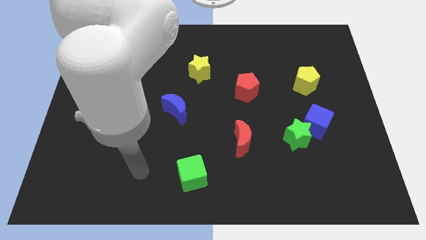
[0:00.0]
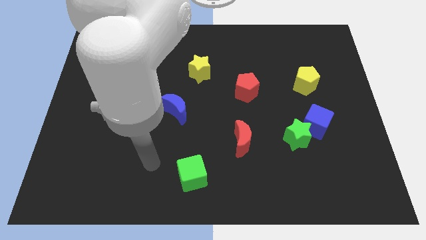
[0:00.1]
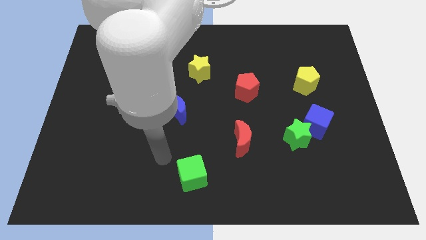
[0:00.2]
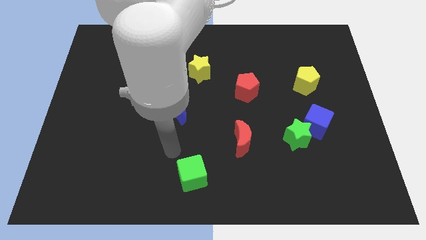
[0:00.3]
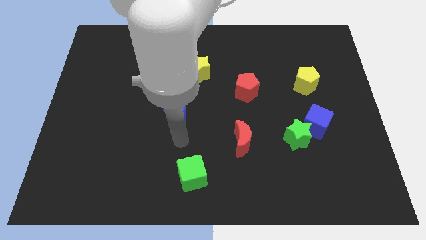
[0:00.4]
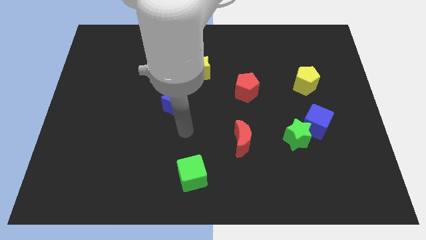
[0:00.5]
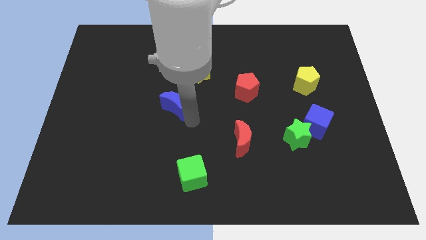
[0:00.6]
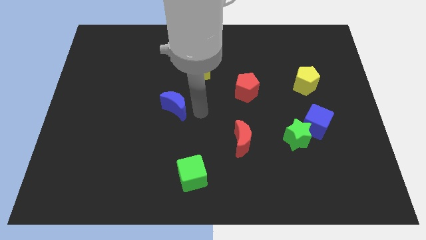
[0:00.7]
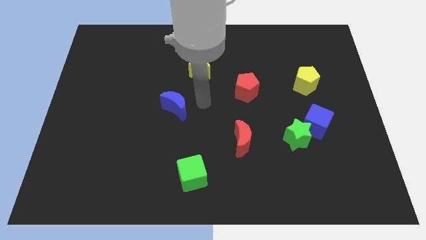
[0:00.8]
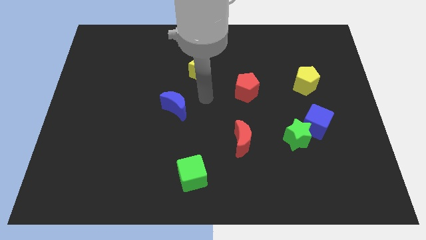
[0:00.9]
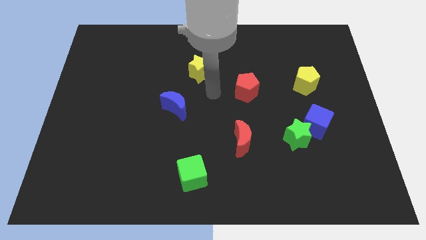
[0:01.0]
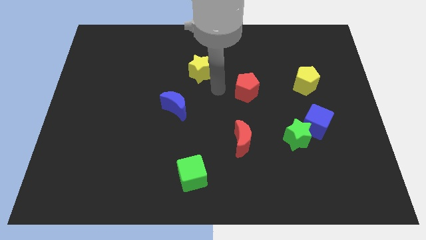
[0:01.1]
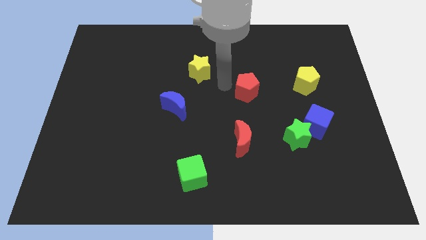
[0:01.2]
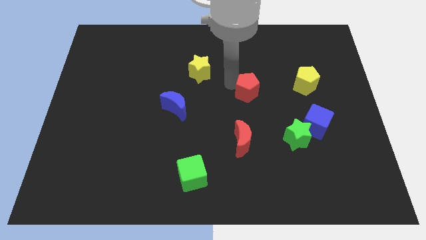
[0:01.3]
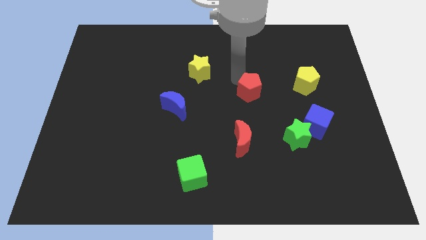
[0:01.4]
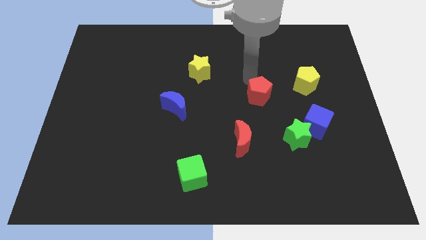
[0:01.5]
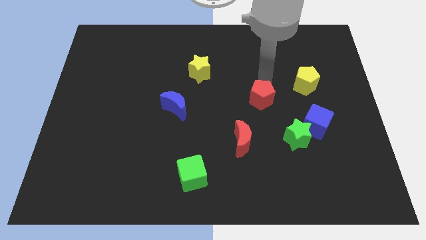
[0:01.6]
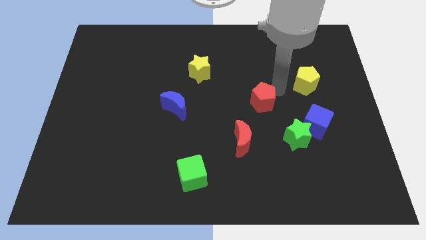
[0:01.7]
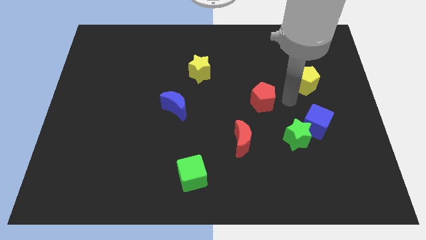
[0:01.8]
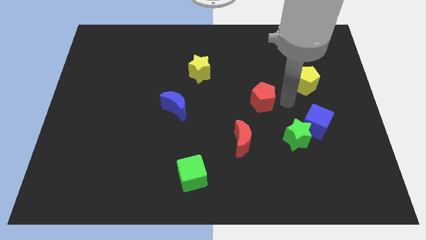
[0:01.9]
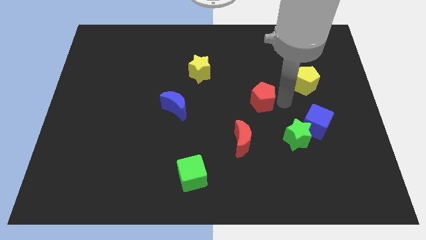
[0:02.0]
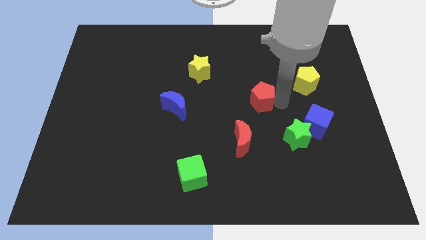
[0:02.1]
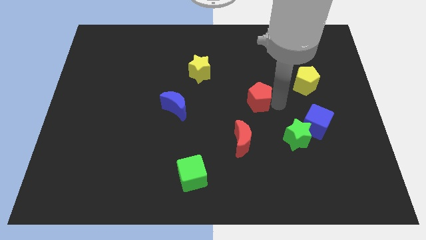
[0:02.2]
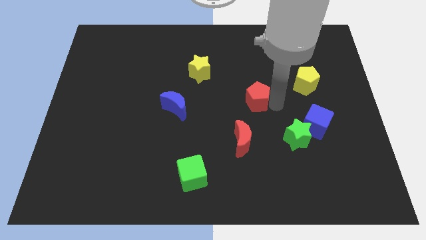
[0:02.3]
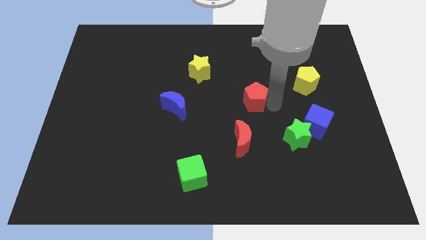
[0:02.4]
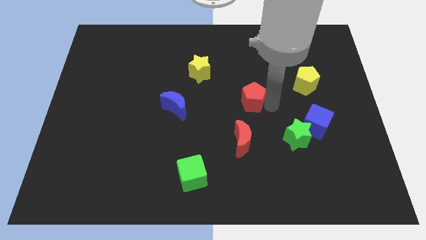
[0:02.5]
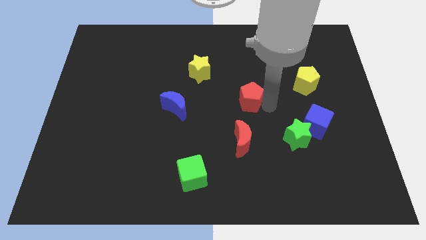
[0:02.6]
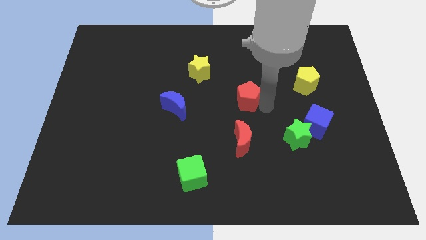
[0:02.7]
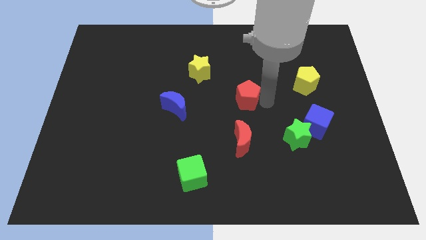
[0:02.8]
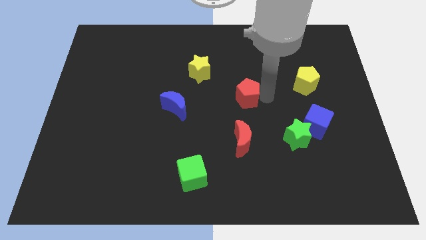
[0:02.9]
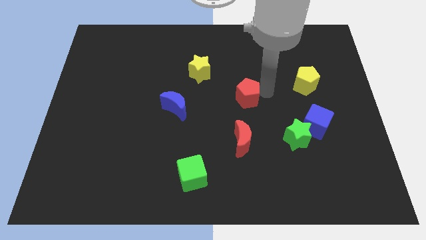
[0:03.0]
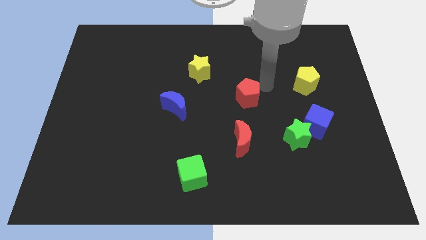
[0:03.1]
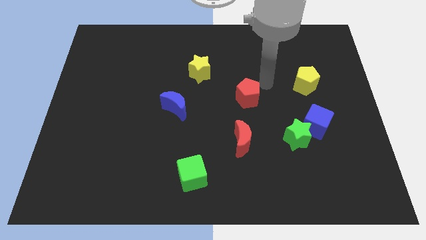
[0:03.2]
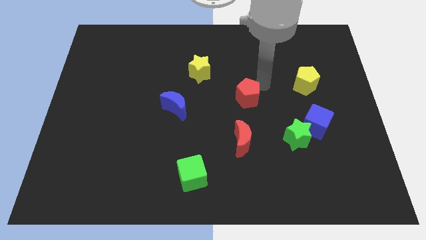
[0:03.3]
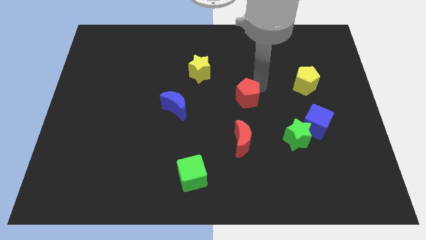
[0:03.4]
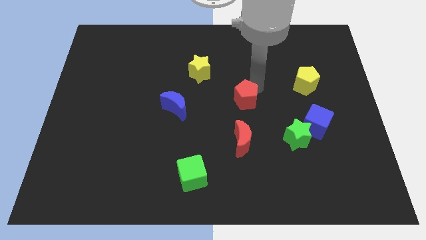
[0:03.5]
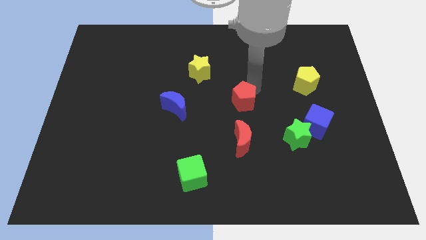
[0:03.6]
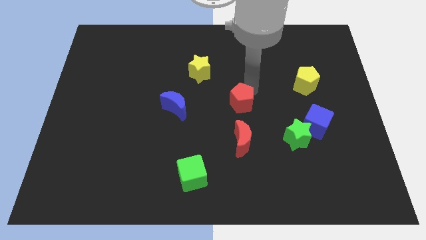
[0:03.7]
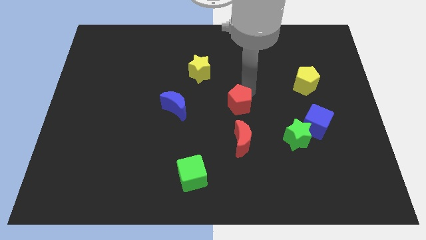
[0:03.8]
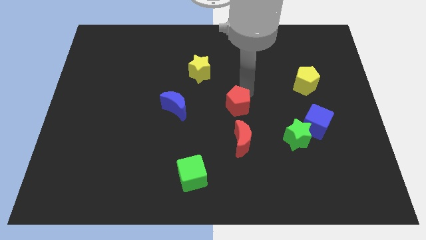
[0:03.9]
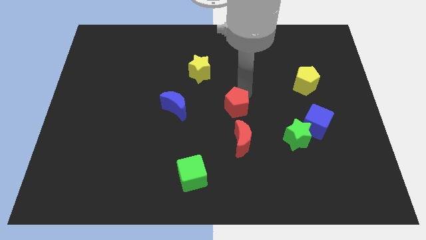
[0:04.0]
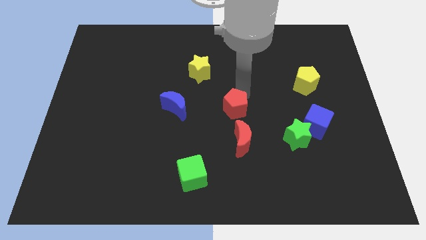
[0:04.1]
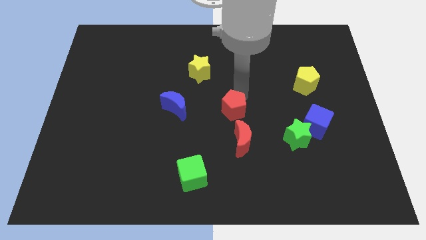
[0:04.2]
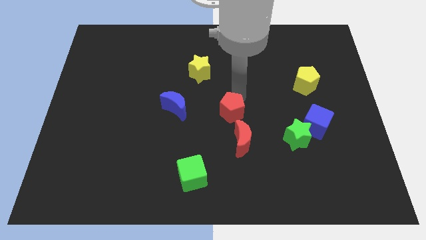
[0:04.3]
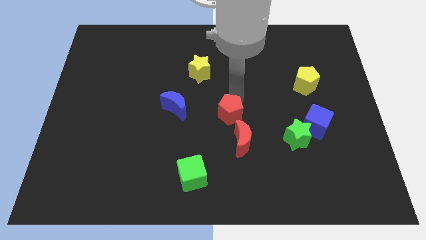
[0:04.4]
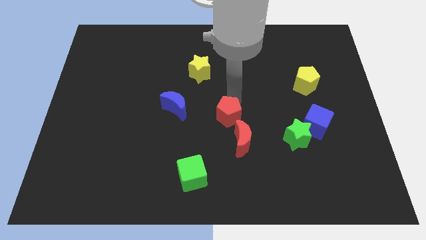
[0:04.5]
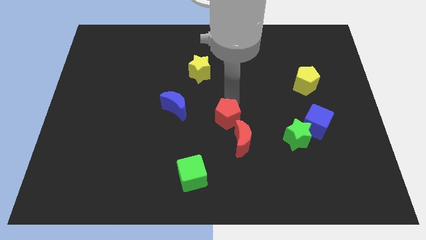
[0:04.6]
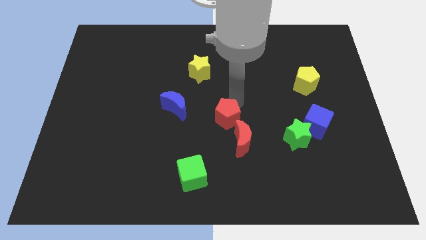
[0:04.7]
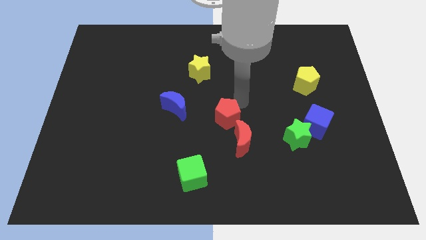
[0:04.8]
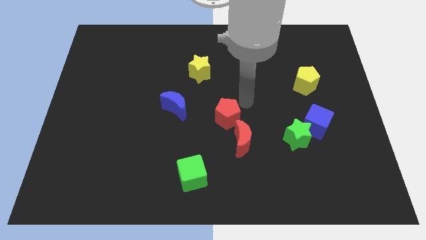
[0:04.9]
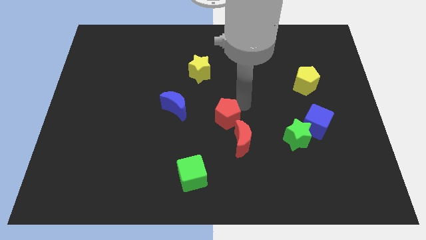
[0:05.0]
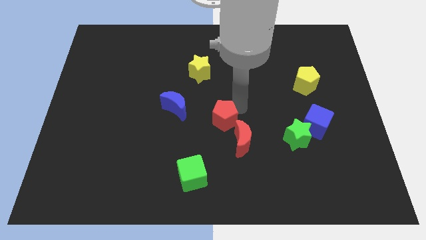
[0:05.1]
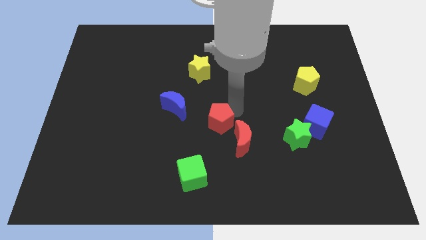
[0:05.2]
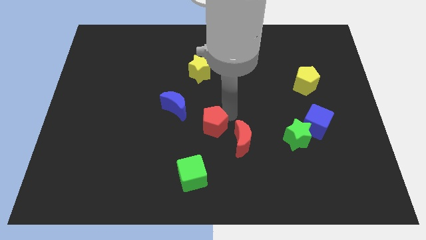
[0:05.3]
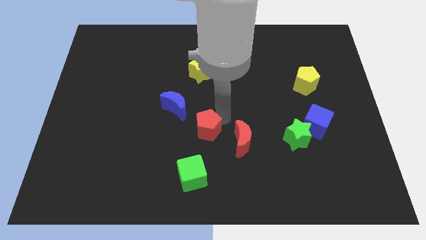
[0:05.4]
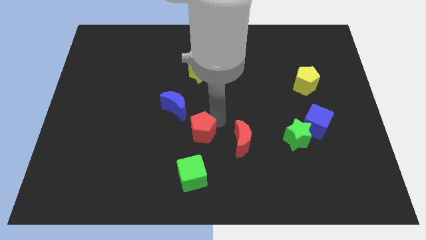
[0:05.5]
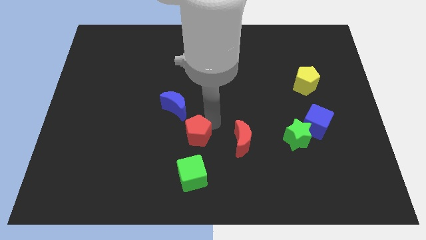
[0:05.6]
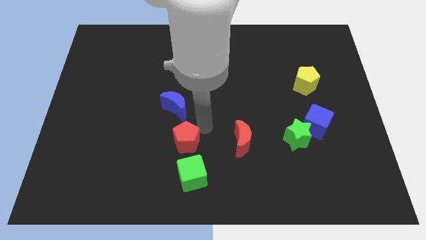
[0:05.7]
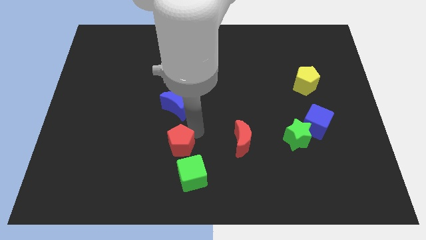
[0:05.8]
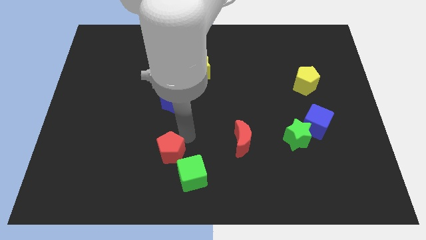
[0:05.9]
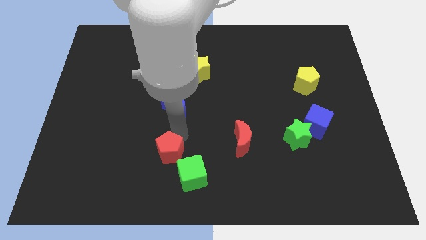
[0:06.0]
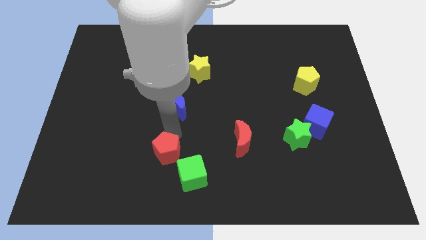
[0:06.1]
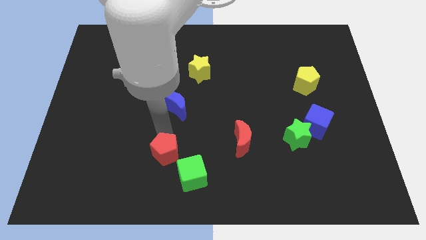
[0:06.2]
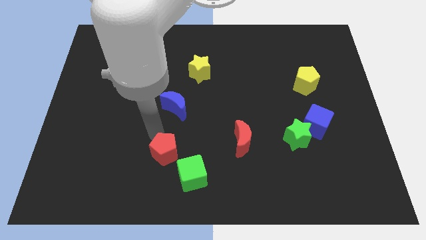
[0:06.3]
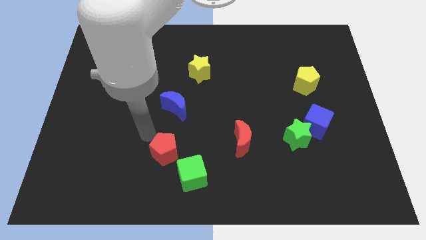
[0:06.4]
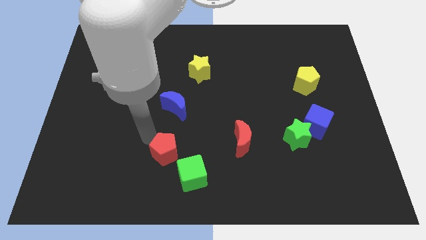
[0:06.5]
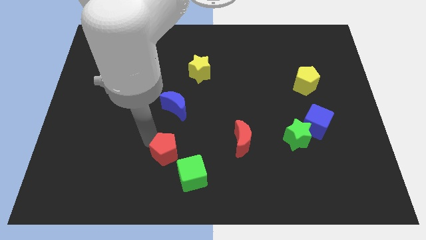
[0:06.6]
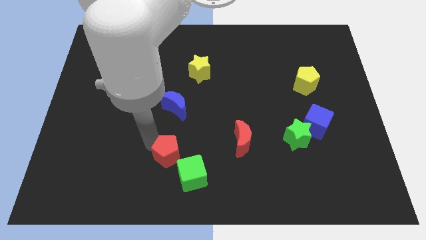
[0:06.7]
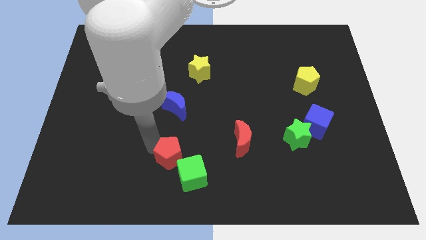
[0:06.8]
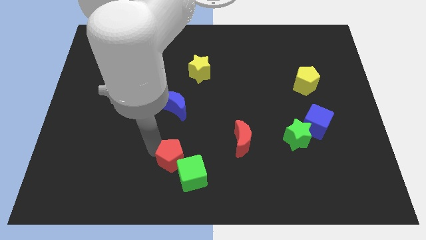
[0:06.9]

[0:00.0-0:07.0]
push the red pentagon close to the green cube
